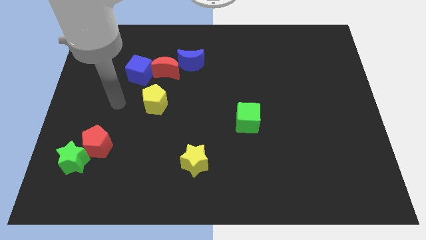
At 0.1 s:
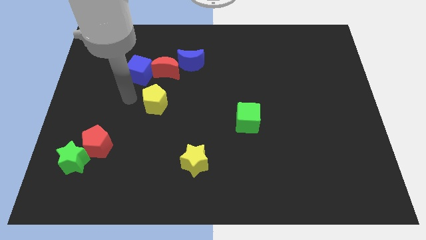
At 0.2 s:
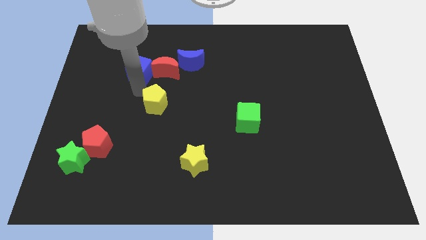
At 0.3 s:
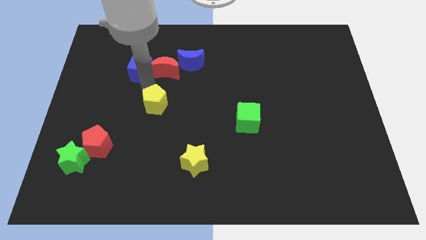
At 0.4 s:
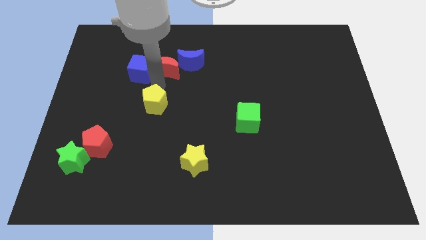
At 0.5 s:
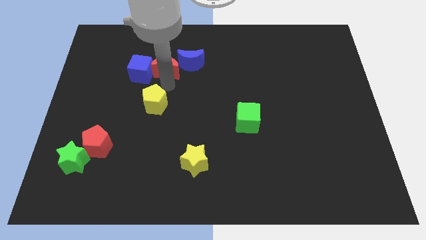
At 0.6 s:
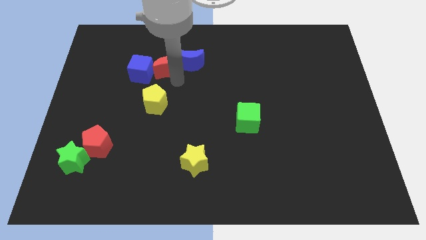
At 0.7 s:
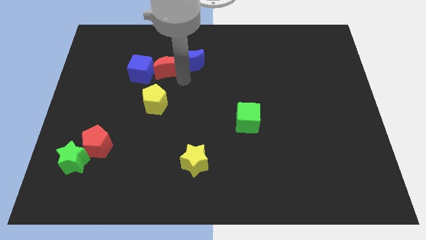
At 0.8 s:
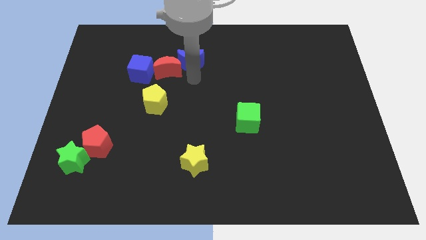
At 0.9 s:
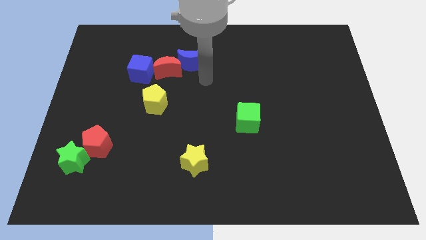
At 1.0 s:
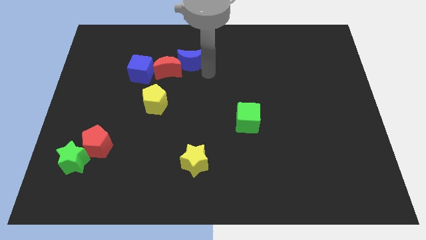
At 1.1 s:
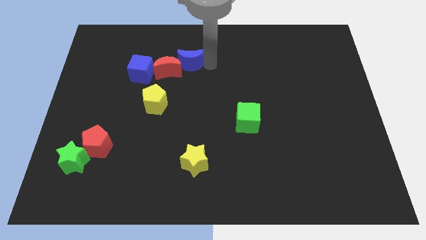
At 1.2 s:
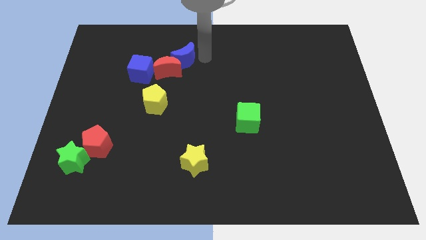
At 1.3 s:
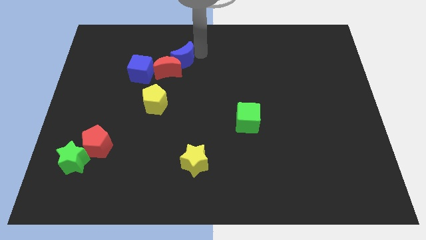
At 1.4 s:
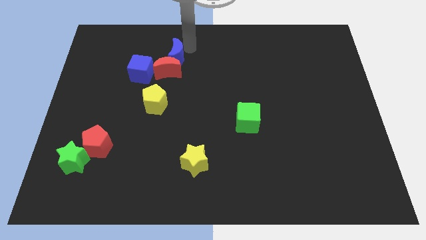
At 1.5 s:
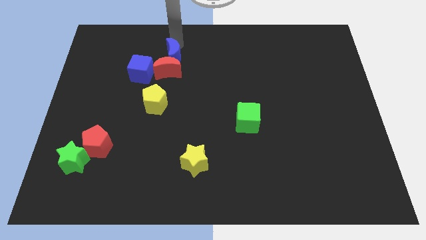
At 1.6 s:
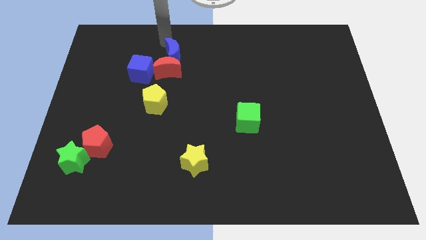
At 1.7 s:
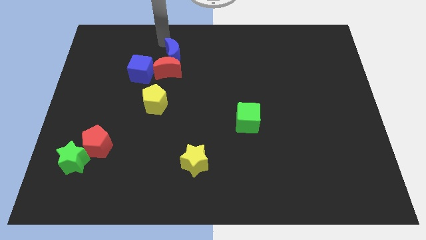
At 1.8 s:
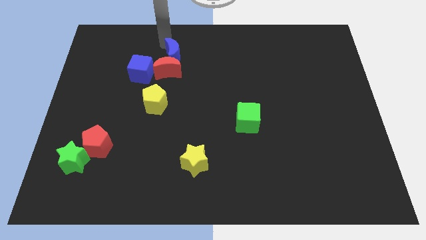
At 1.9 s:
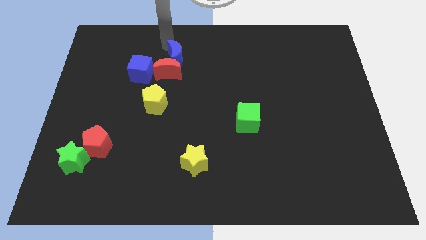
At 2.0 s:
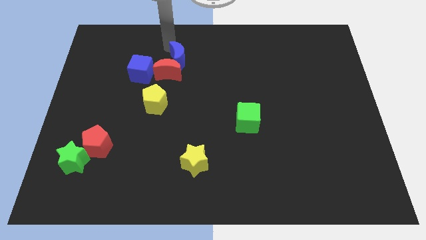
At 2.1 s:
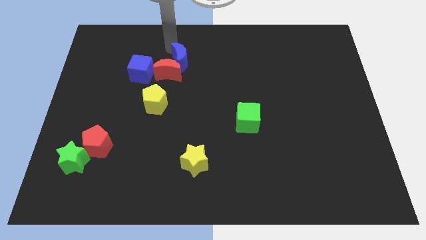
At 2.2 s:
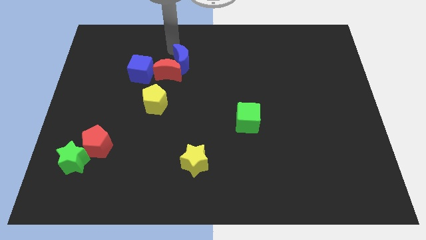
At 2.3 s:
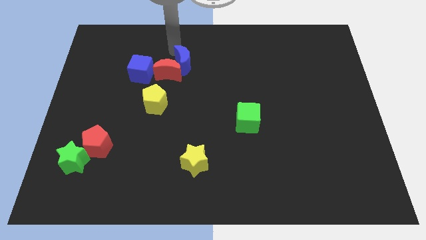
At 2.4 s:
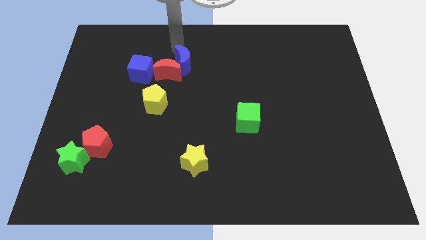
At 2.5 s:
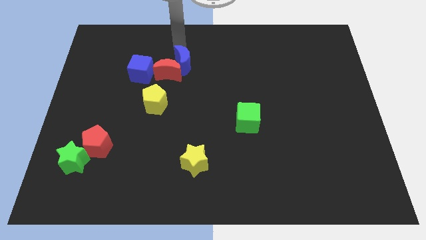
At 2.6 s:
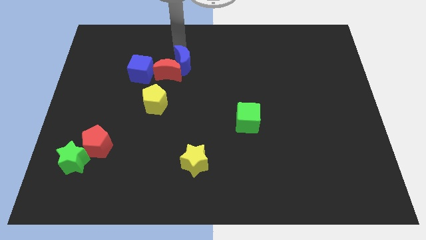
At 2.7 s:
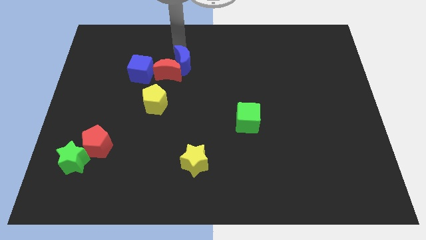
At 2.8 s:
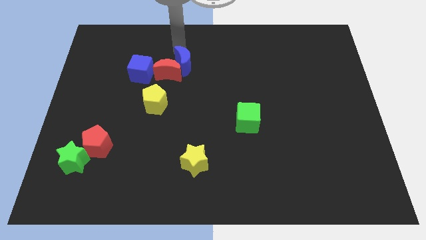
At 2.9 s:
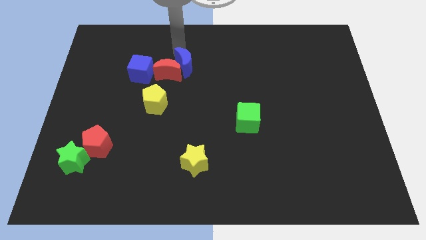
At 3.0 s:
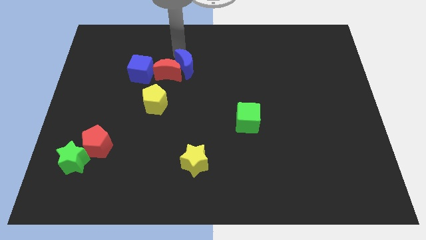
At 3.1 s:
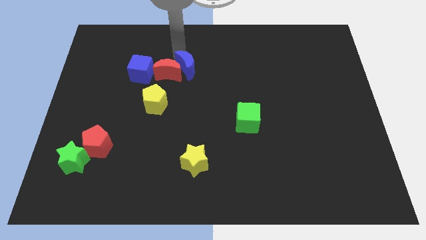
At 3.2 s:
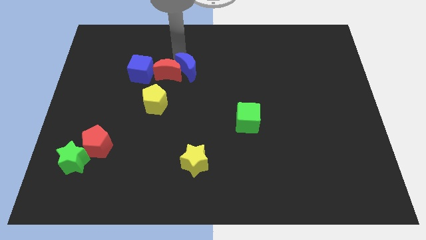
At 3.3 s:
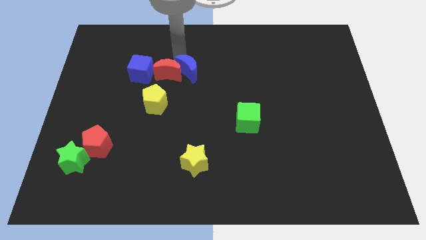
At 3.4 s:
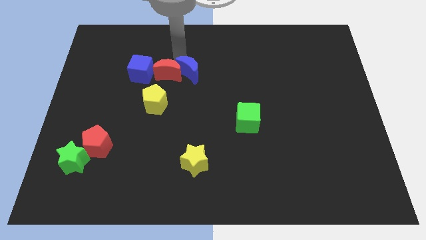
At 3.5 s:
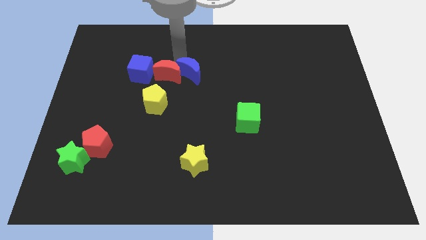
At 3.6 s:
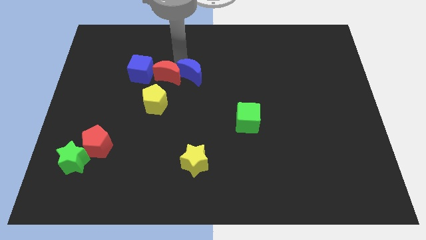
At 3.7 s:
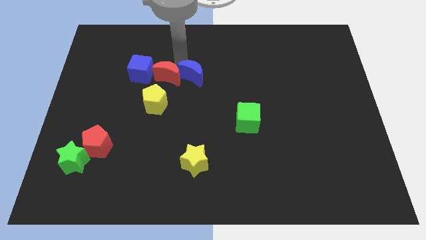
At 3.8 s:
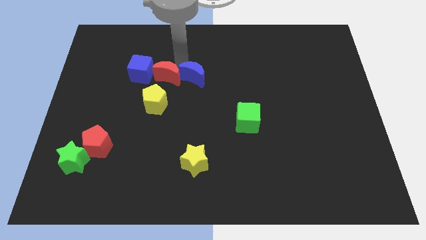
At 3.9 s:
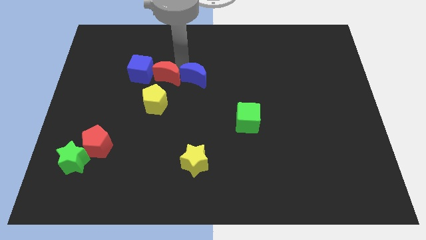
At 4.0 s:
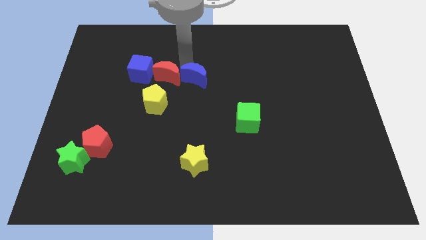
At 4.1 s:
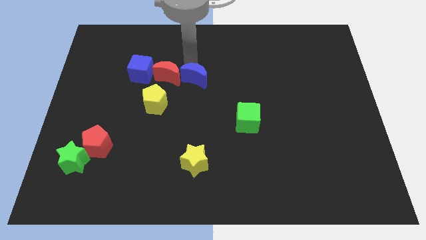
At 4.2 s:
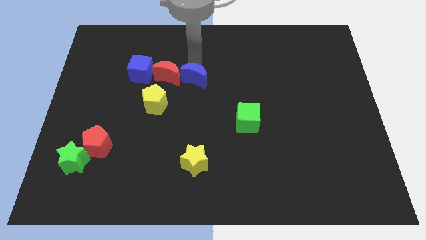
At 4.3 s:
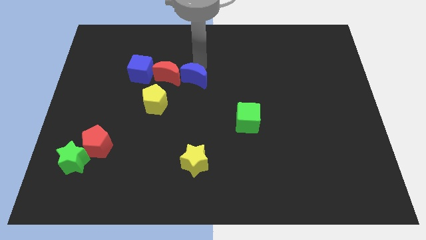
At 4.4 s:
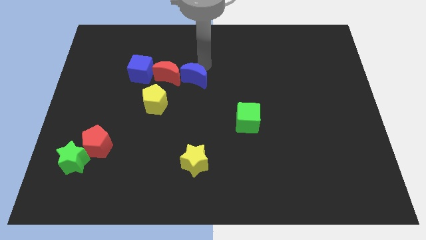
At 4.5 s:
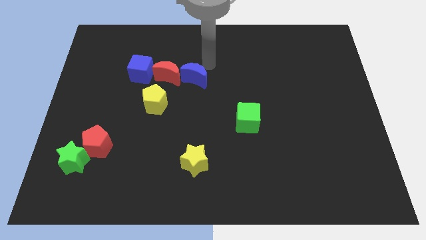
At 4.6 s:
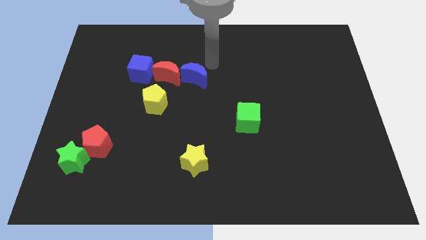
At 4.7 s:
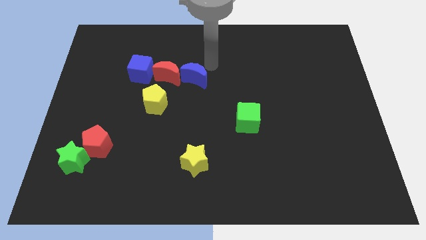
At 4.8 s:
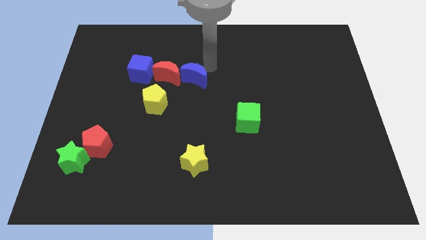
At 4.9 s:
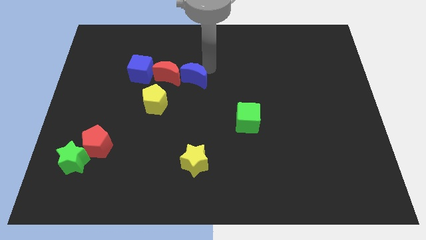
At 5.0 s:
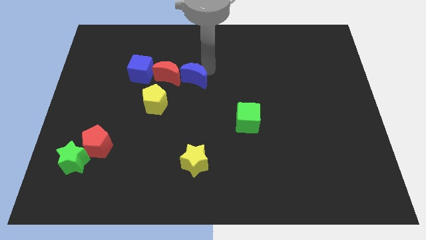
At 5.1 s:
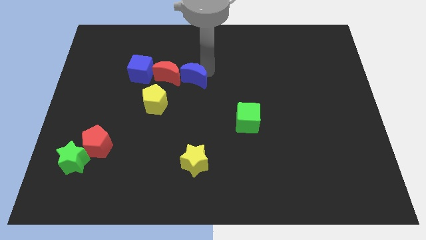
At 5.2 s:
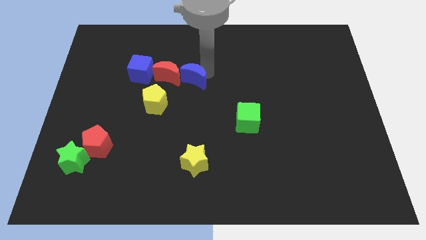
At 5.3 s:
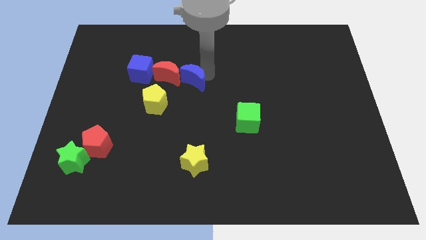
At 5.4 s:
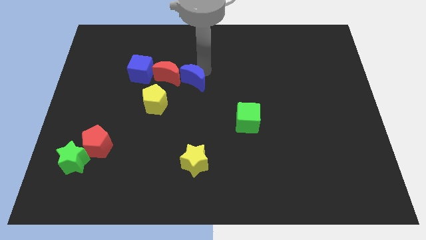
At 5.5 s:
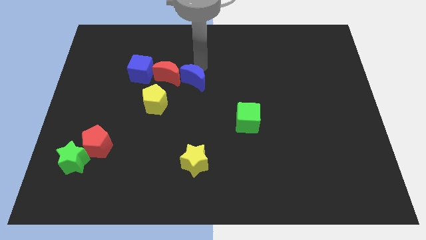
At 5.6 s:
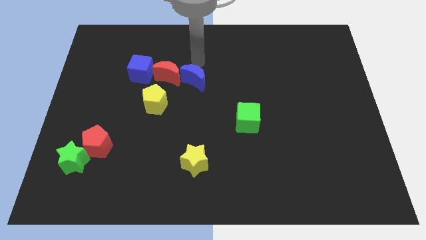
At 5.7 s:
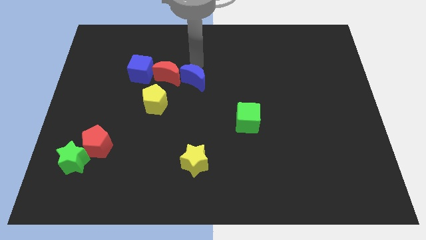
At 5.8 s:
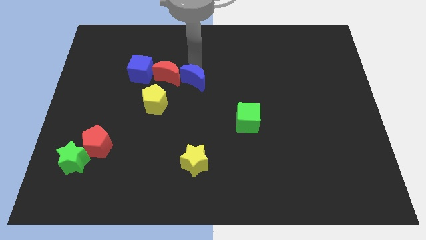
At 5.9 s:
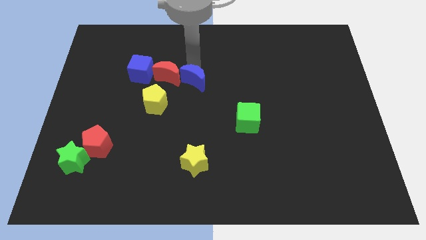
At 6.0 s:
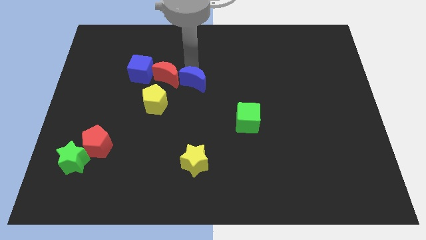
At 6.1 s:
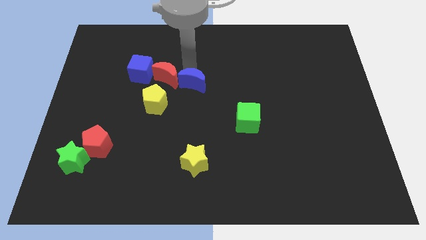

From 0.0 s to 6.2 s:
move the blue moon slightly downwards

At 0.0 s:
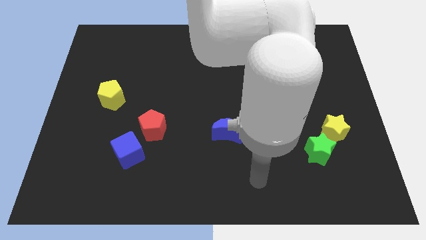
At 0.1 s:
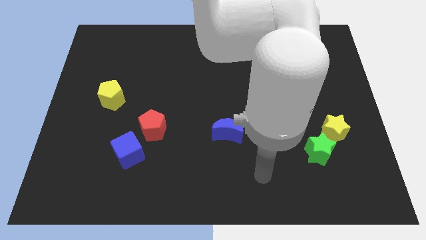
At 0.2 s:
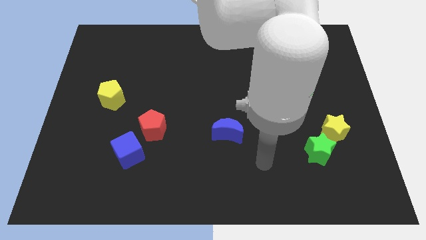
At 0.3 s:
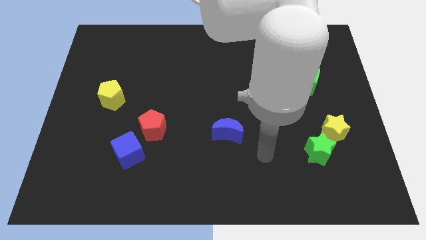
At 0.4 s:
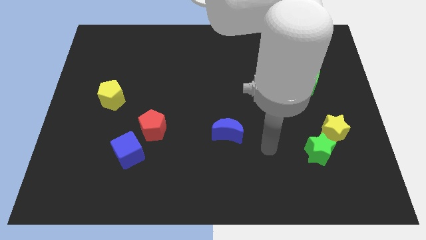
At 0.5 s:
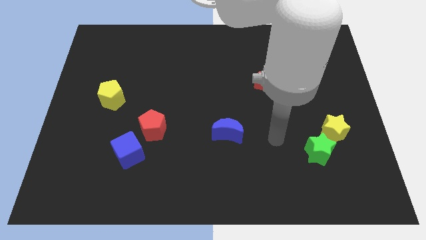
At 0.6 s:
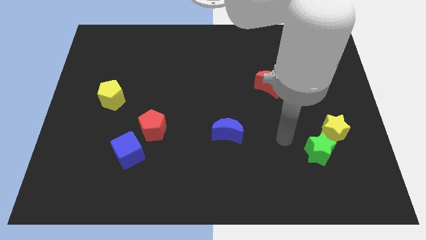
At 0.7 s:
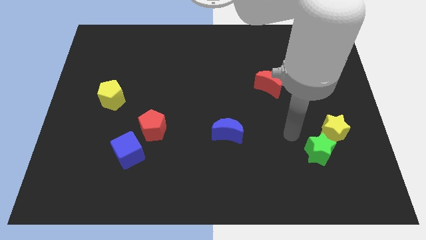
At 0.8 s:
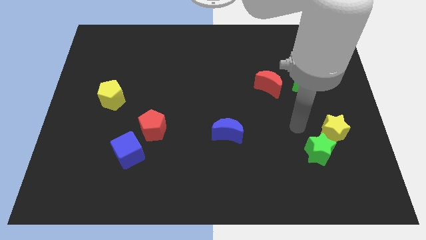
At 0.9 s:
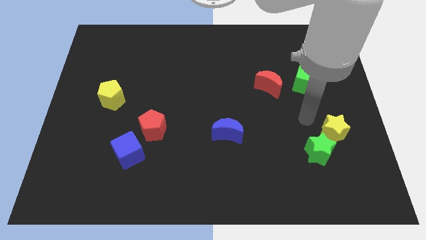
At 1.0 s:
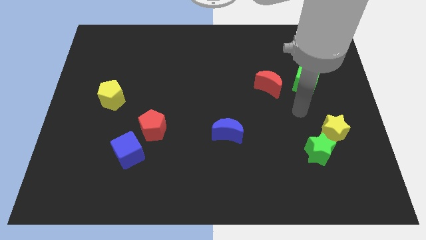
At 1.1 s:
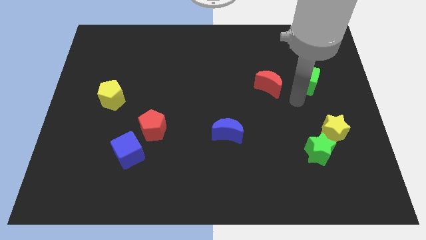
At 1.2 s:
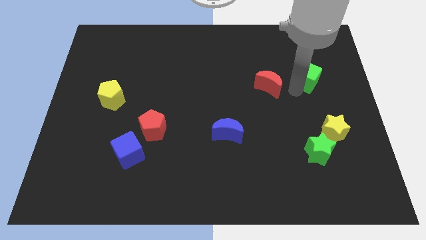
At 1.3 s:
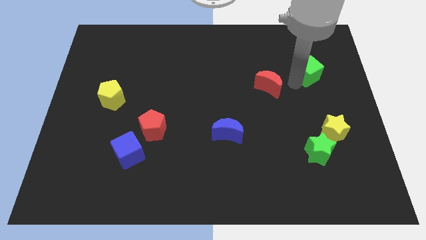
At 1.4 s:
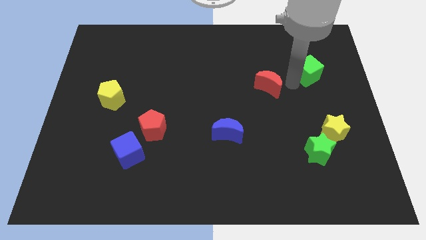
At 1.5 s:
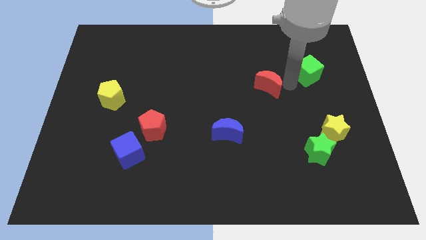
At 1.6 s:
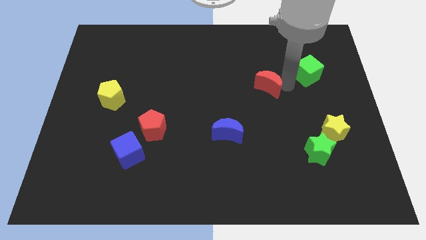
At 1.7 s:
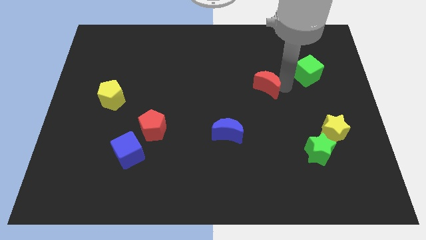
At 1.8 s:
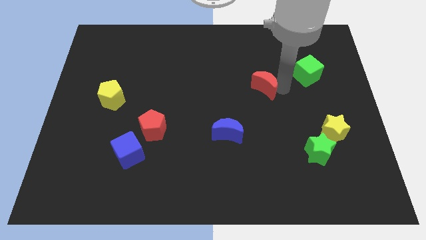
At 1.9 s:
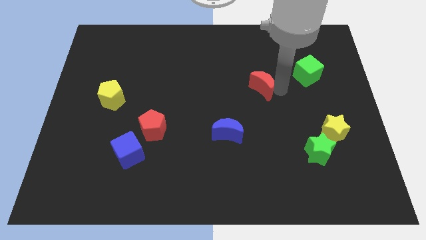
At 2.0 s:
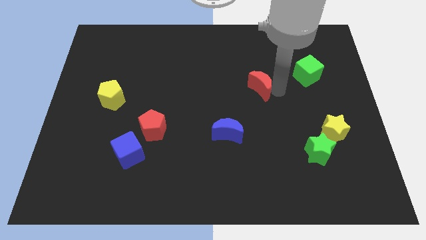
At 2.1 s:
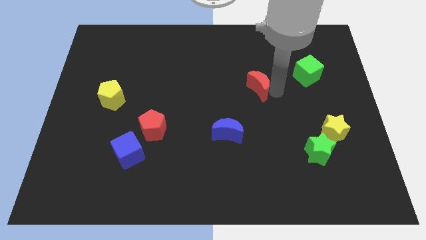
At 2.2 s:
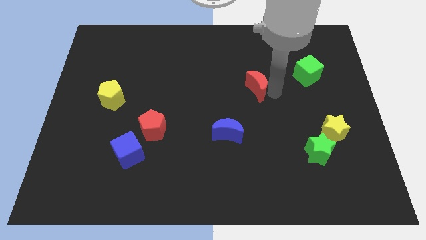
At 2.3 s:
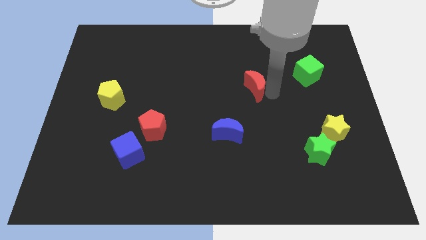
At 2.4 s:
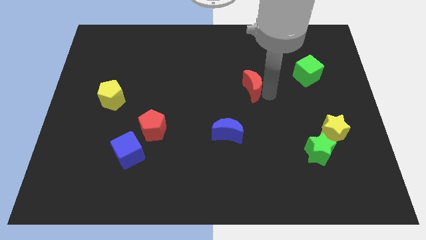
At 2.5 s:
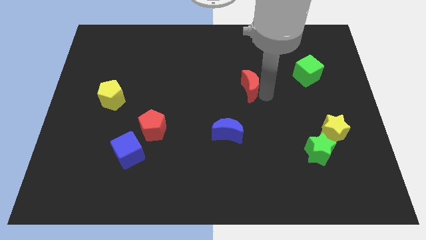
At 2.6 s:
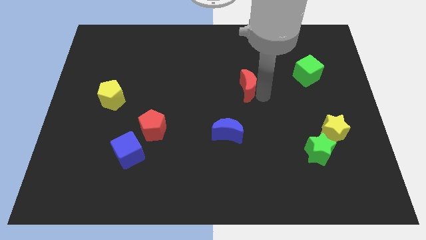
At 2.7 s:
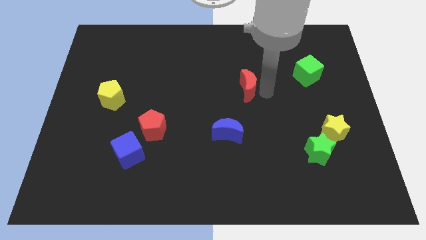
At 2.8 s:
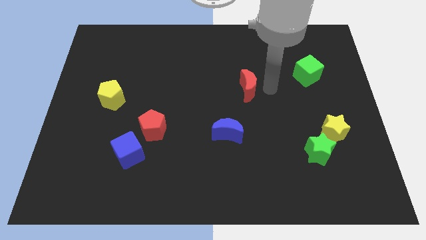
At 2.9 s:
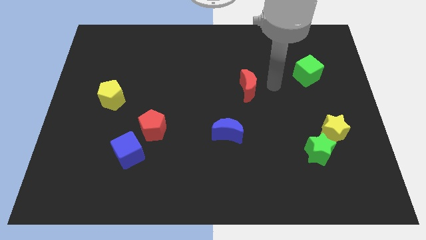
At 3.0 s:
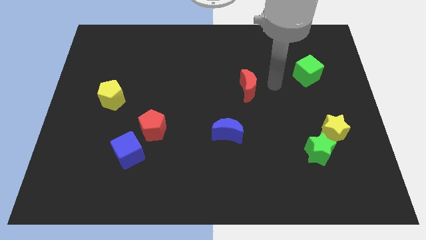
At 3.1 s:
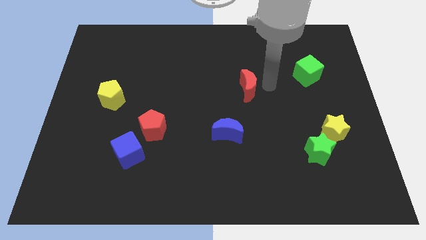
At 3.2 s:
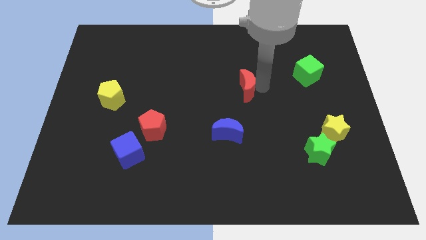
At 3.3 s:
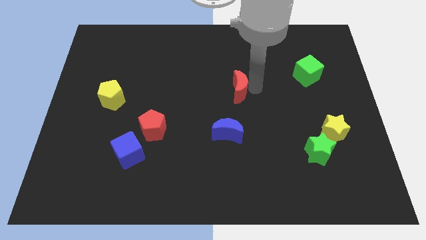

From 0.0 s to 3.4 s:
move the red moon a little to the left
